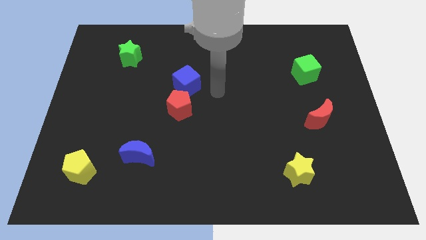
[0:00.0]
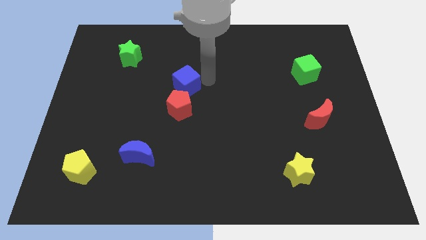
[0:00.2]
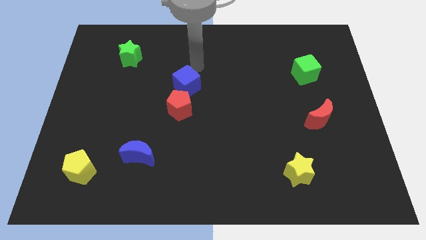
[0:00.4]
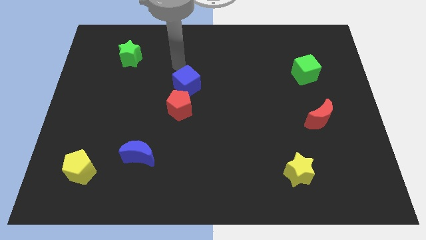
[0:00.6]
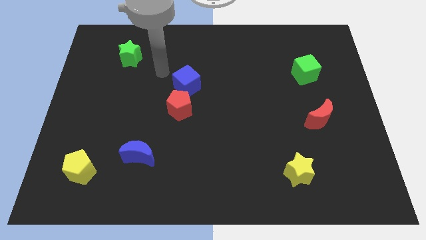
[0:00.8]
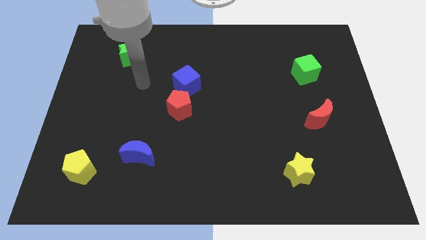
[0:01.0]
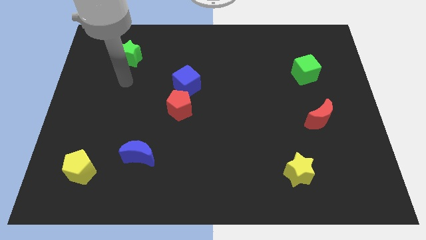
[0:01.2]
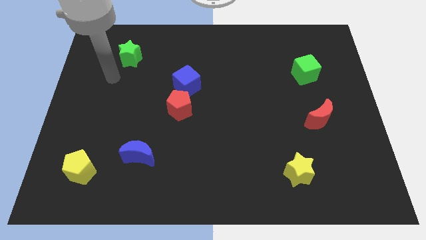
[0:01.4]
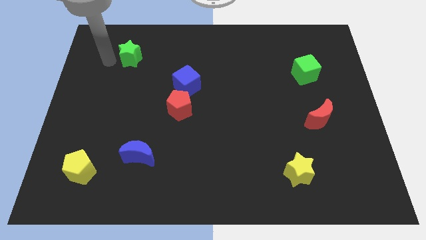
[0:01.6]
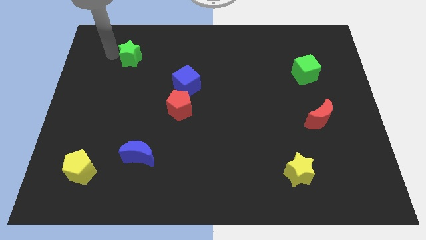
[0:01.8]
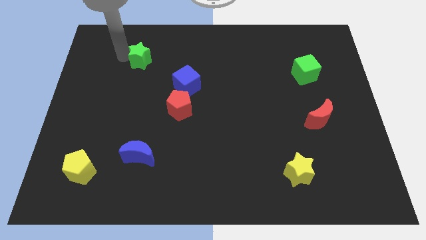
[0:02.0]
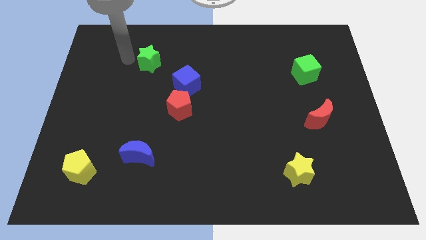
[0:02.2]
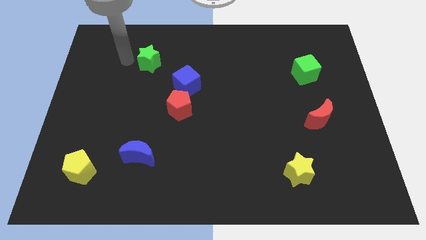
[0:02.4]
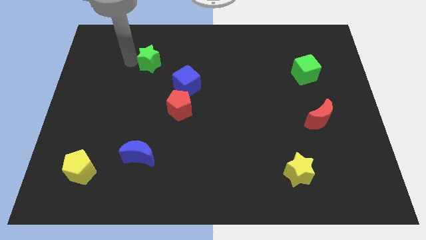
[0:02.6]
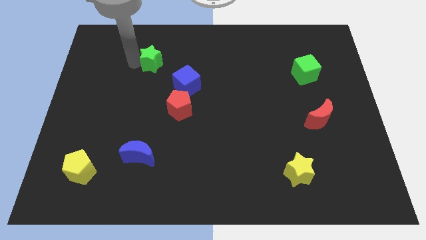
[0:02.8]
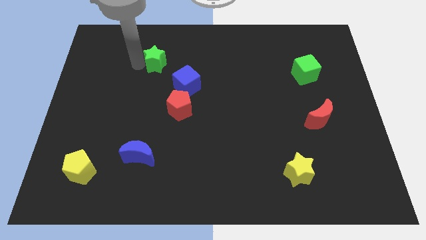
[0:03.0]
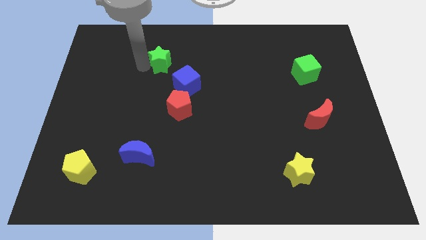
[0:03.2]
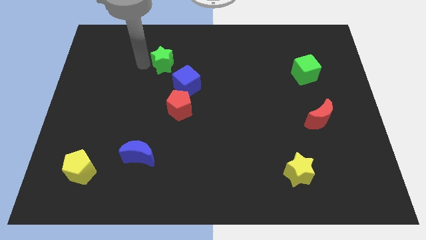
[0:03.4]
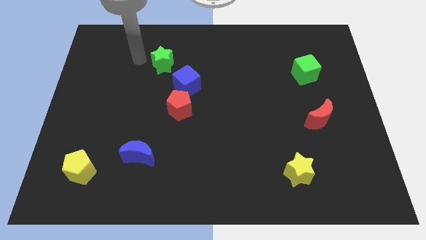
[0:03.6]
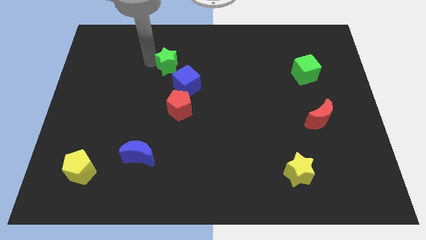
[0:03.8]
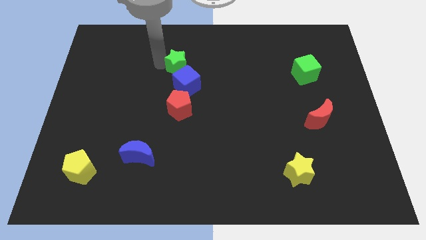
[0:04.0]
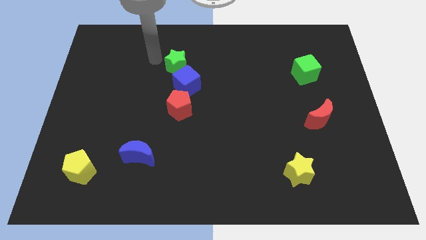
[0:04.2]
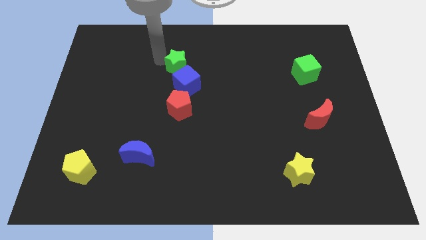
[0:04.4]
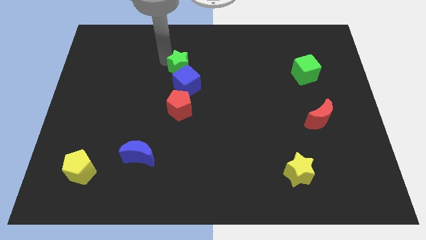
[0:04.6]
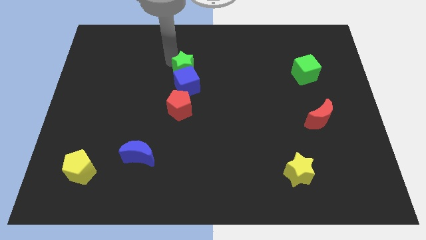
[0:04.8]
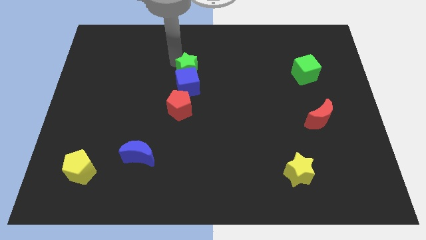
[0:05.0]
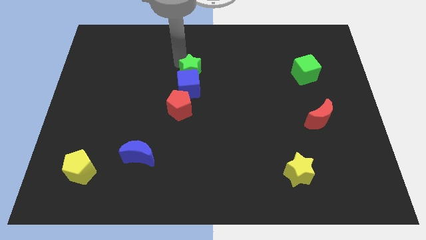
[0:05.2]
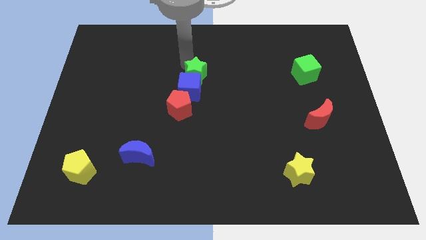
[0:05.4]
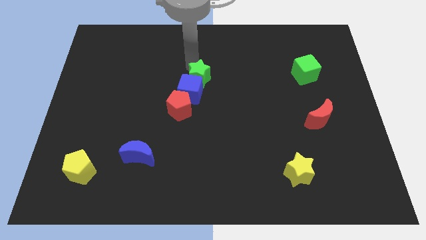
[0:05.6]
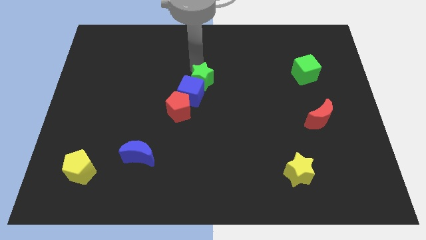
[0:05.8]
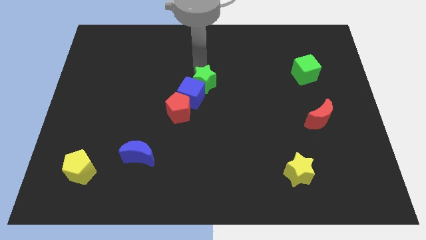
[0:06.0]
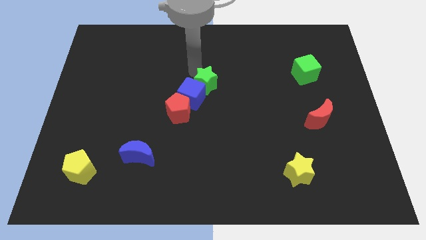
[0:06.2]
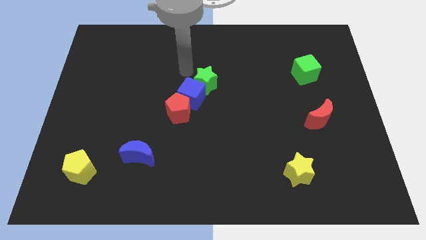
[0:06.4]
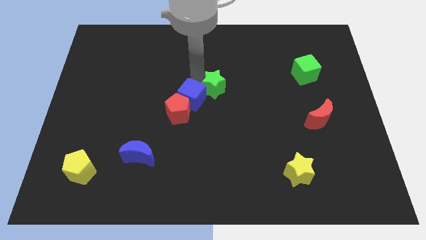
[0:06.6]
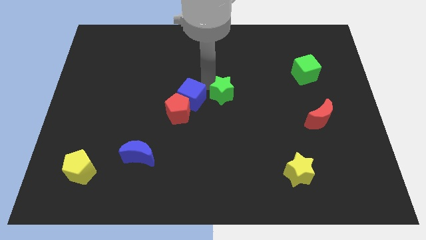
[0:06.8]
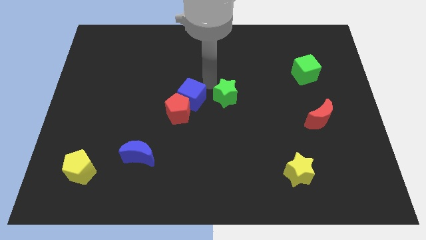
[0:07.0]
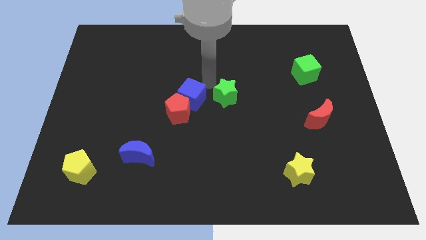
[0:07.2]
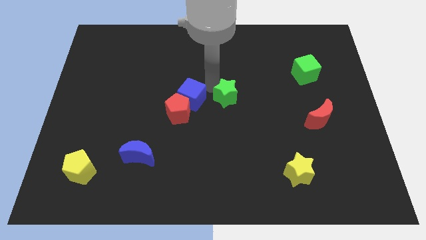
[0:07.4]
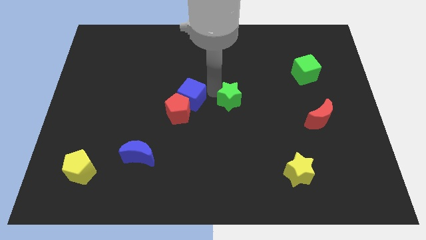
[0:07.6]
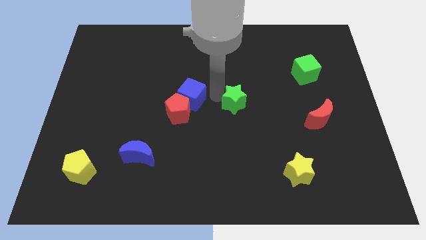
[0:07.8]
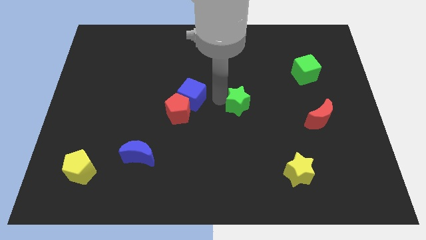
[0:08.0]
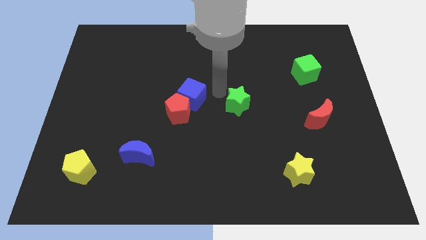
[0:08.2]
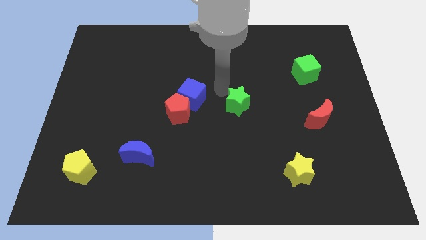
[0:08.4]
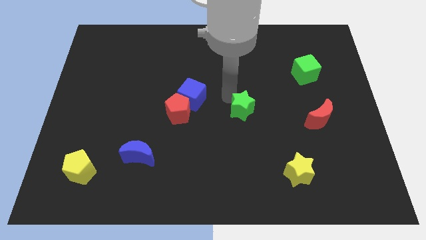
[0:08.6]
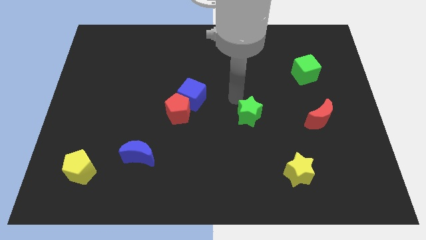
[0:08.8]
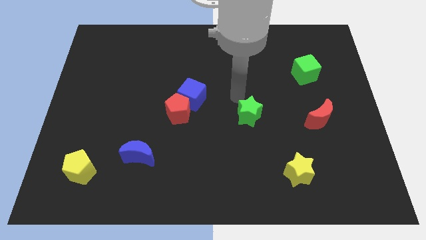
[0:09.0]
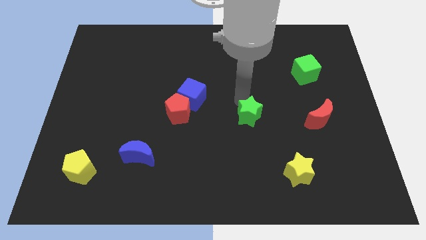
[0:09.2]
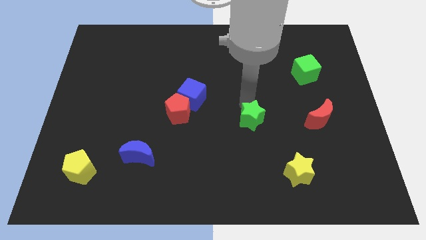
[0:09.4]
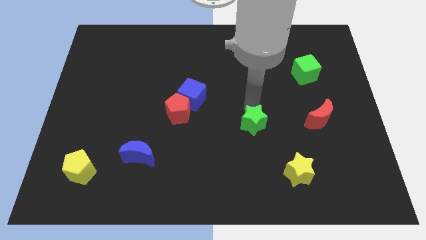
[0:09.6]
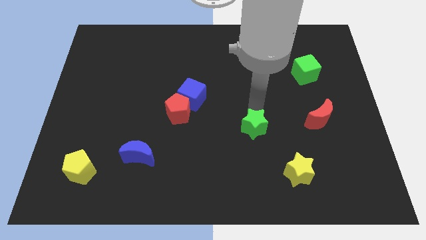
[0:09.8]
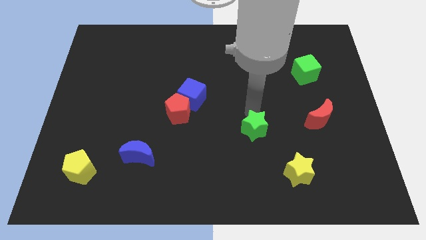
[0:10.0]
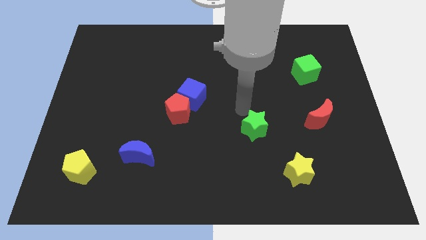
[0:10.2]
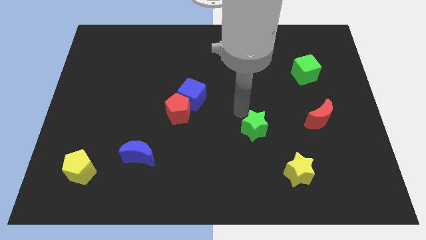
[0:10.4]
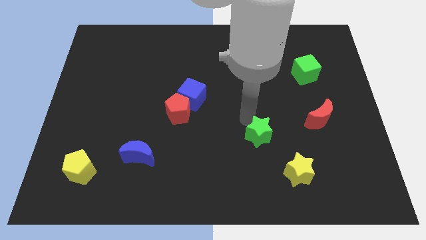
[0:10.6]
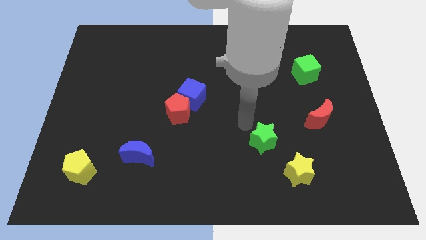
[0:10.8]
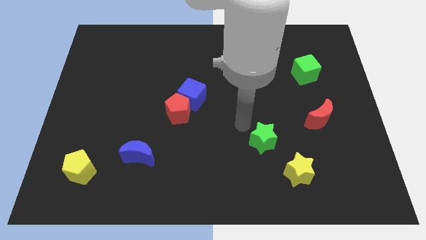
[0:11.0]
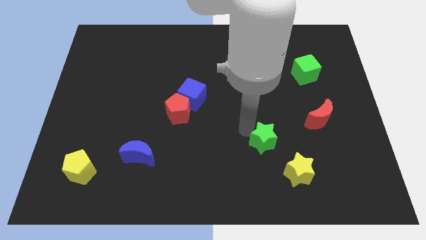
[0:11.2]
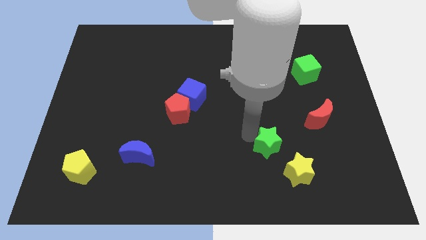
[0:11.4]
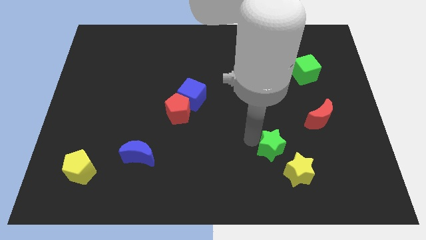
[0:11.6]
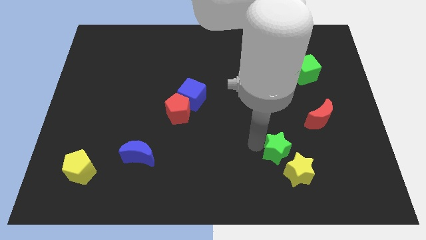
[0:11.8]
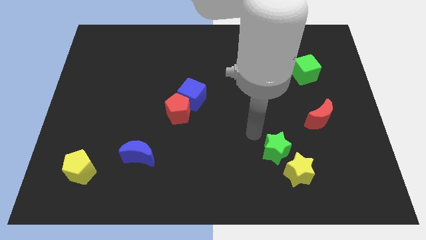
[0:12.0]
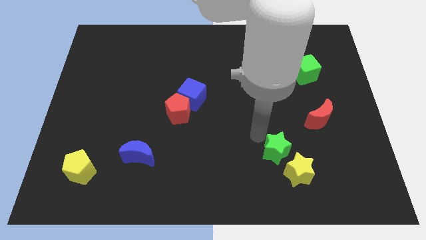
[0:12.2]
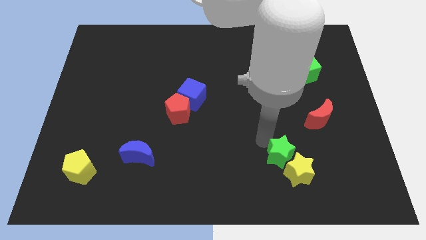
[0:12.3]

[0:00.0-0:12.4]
move the green star towards the yellow star

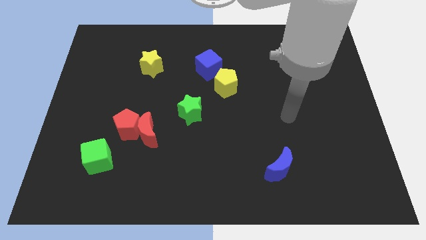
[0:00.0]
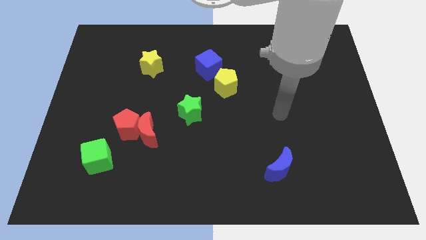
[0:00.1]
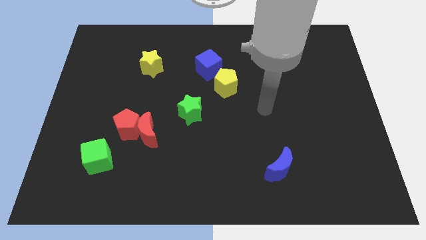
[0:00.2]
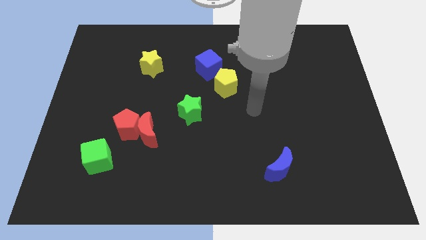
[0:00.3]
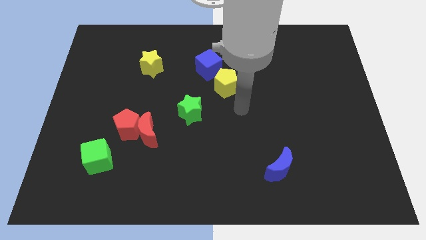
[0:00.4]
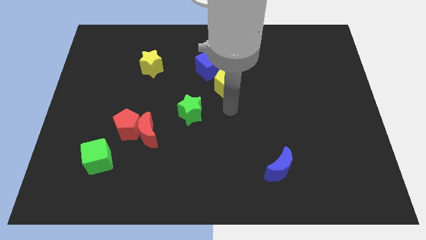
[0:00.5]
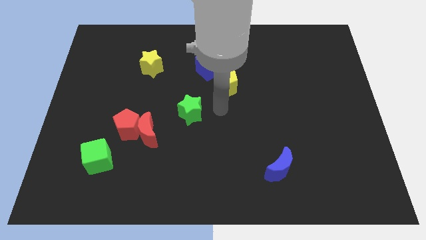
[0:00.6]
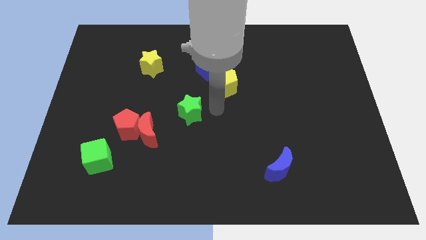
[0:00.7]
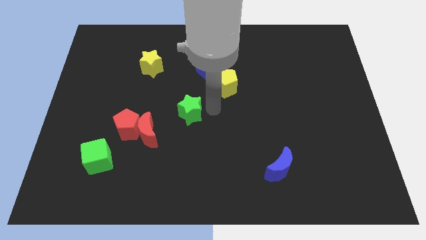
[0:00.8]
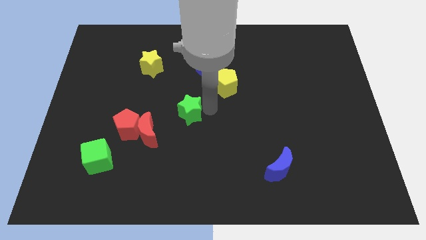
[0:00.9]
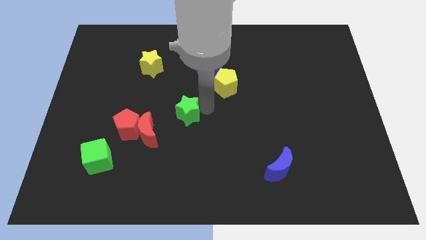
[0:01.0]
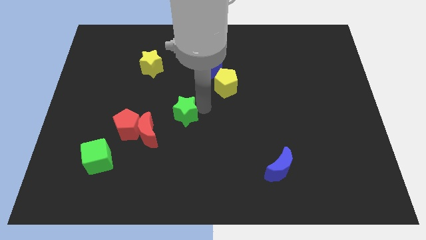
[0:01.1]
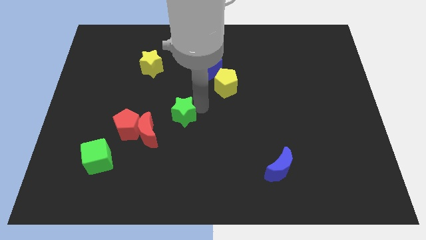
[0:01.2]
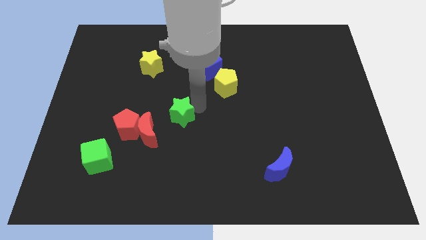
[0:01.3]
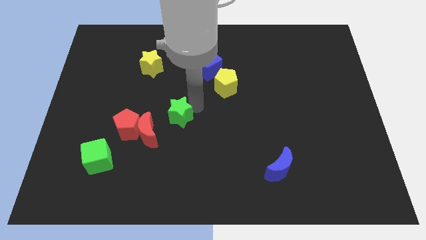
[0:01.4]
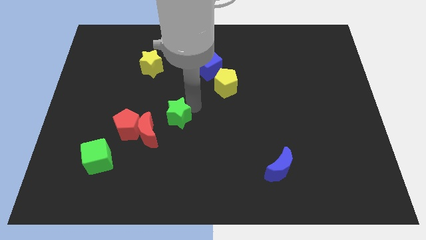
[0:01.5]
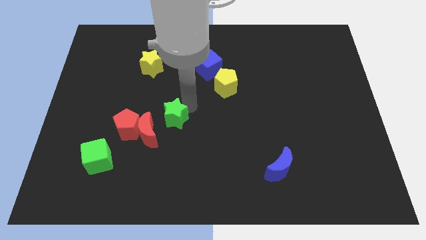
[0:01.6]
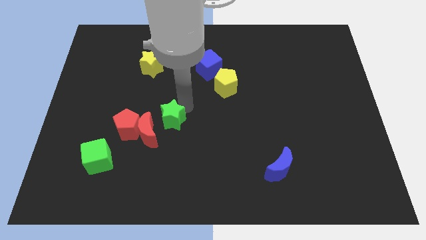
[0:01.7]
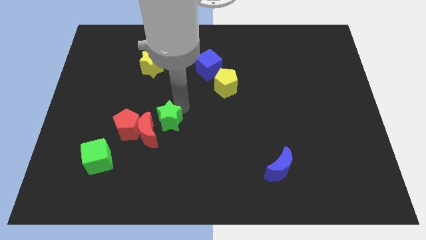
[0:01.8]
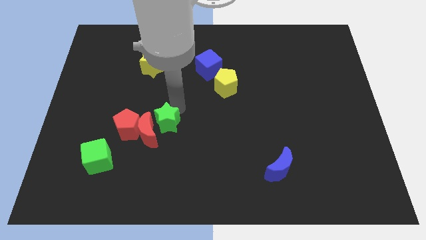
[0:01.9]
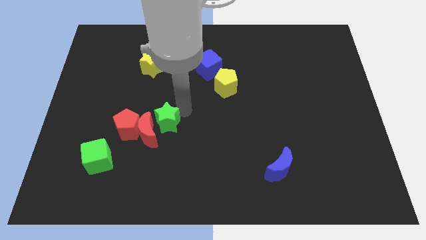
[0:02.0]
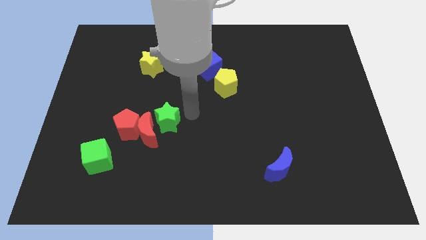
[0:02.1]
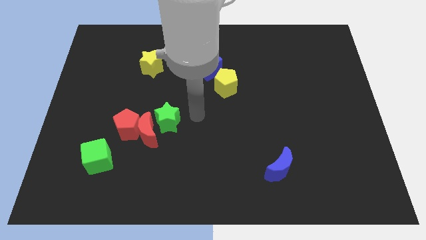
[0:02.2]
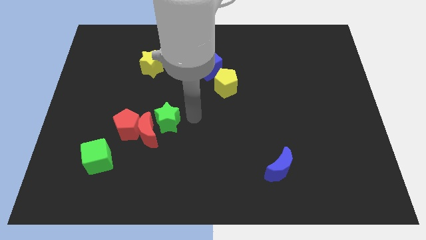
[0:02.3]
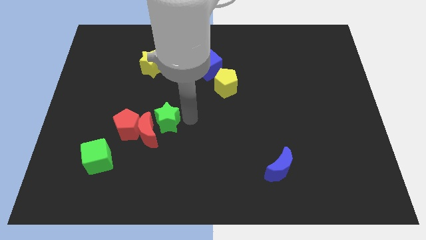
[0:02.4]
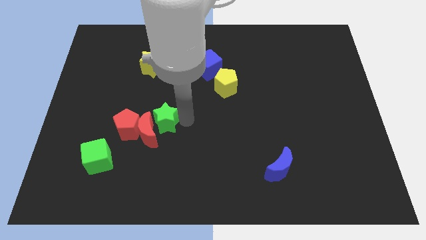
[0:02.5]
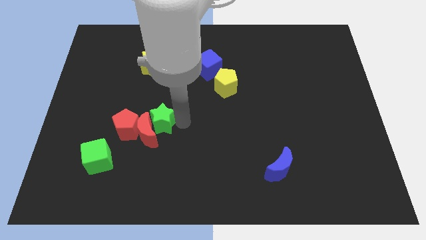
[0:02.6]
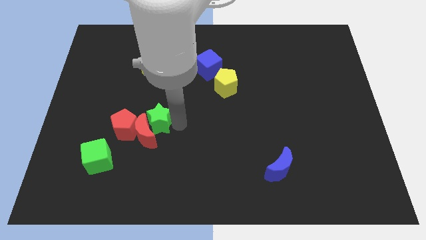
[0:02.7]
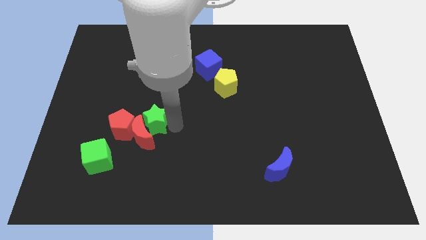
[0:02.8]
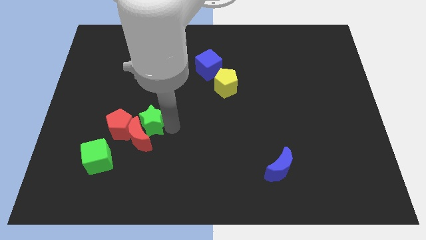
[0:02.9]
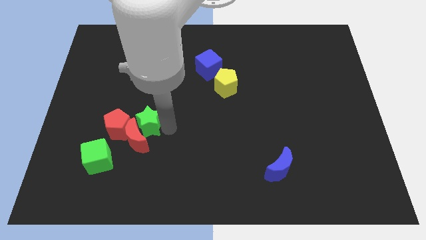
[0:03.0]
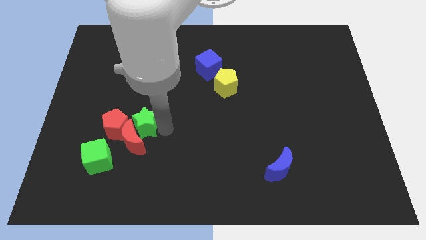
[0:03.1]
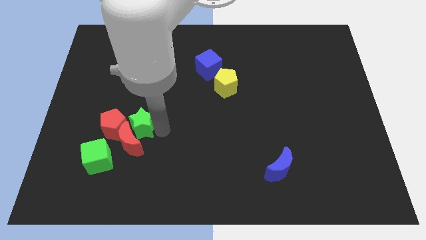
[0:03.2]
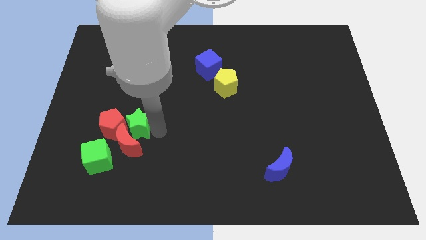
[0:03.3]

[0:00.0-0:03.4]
put the green star to the red pentagon
